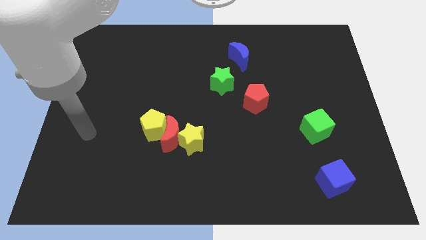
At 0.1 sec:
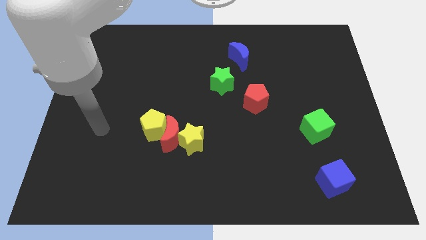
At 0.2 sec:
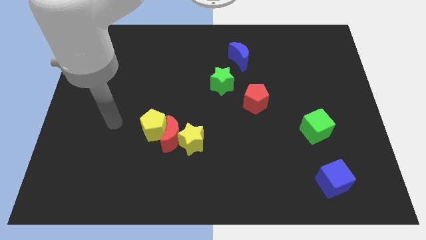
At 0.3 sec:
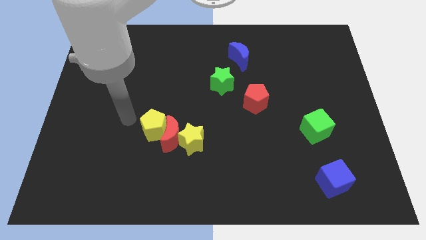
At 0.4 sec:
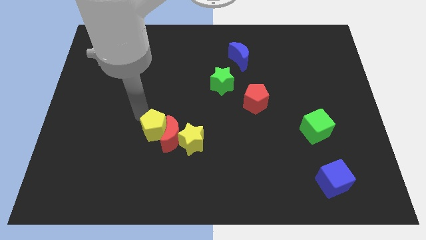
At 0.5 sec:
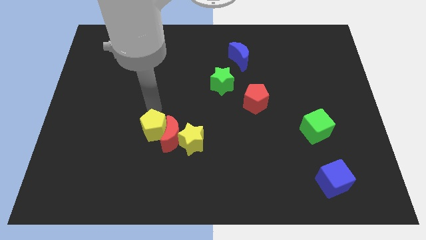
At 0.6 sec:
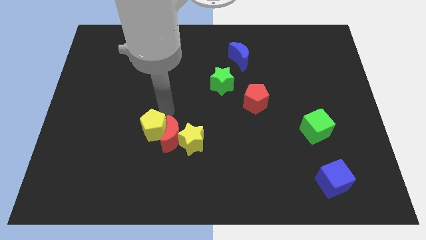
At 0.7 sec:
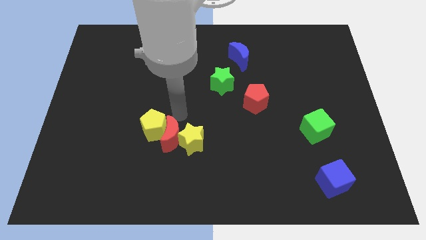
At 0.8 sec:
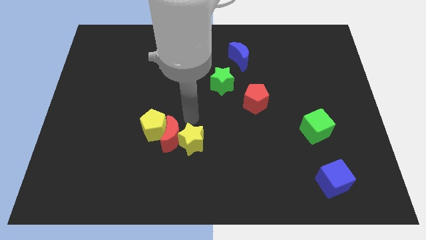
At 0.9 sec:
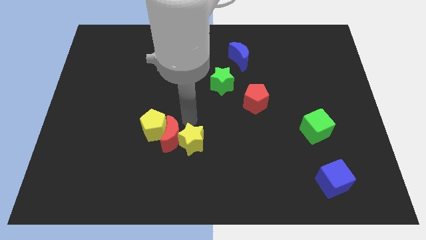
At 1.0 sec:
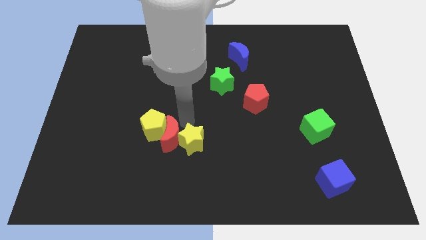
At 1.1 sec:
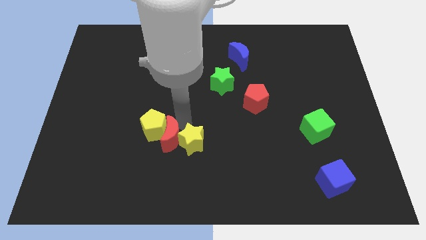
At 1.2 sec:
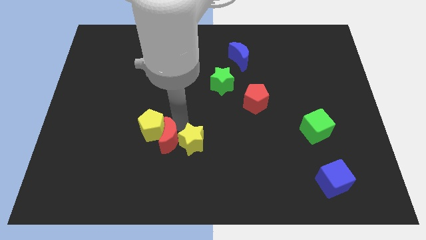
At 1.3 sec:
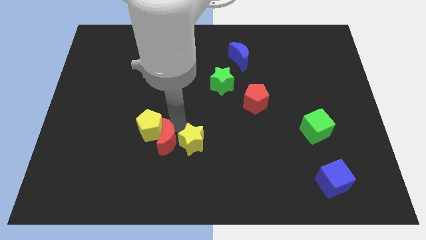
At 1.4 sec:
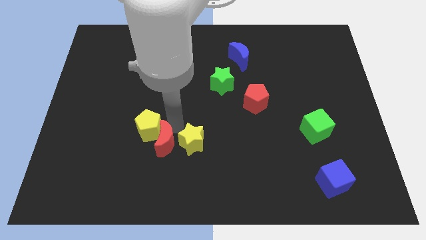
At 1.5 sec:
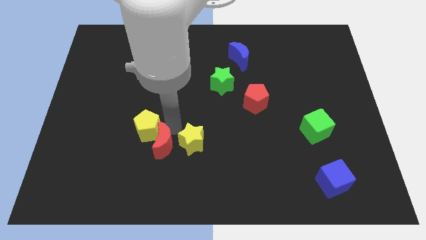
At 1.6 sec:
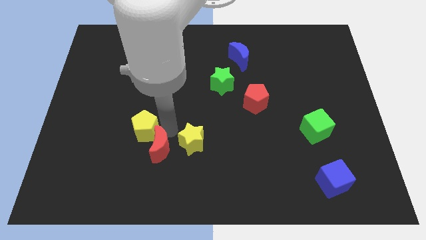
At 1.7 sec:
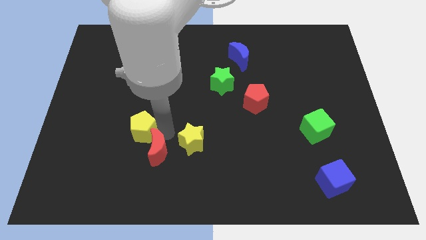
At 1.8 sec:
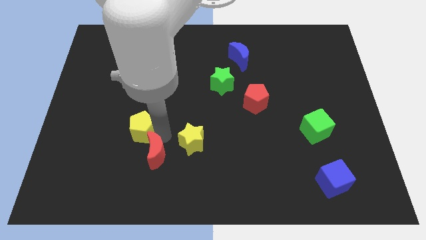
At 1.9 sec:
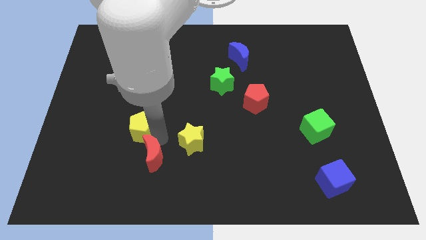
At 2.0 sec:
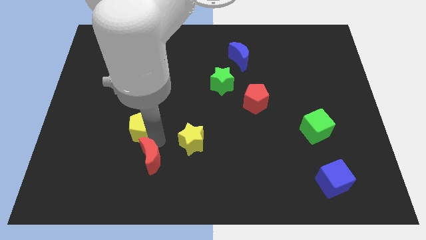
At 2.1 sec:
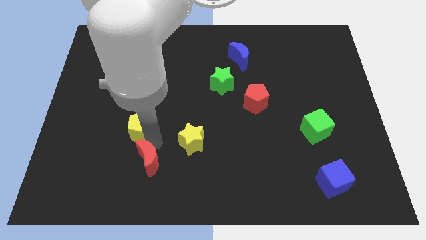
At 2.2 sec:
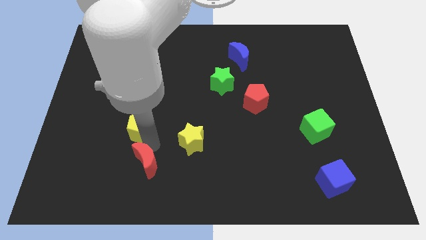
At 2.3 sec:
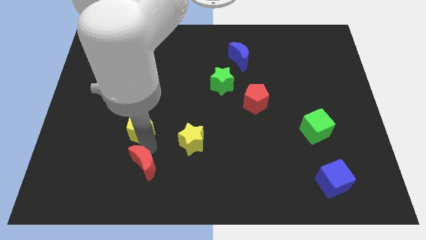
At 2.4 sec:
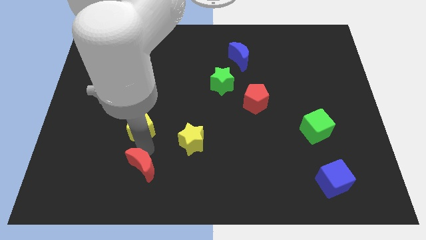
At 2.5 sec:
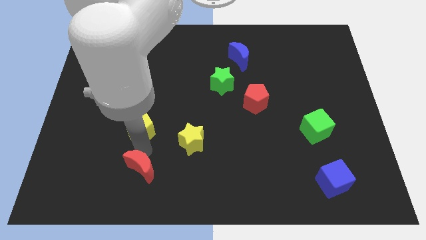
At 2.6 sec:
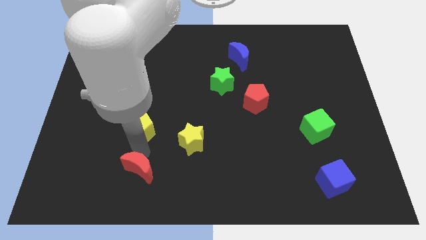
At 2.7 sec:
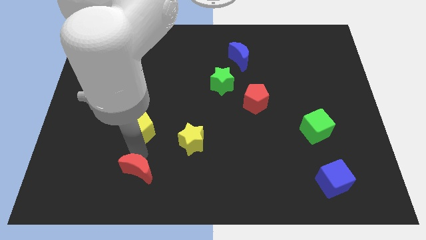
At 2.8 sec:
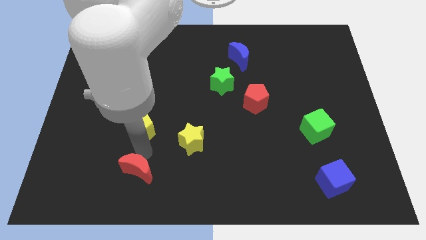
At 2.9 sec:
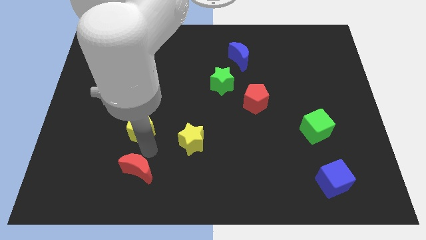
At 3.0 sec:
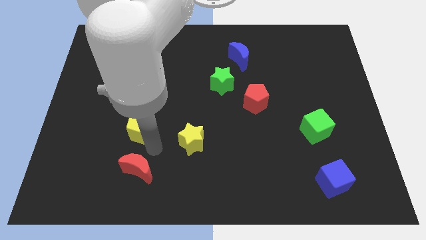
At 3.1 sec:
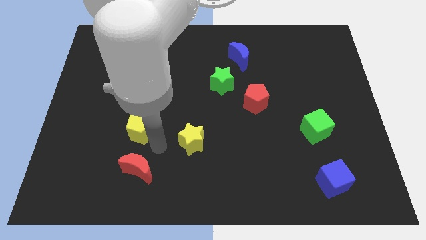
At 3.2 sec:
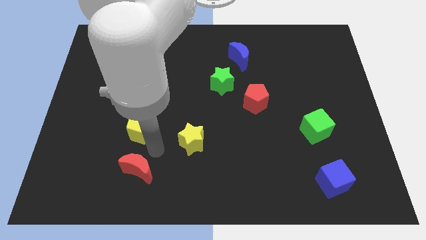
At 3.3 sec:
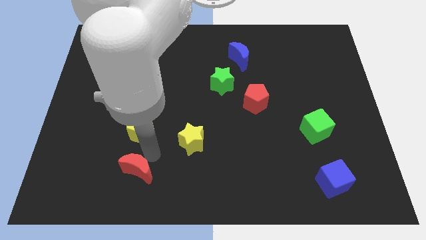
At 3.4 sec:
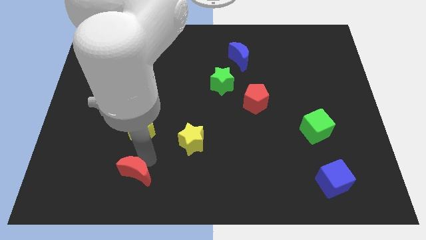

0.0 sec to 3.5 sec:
pull the red moon apart from the yellow pentagon and yellow star

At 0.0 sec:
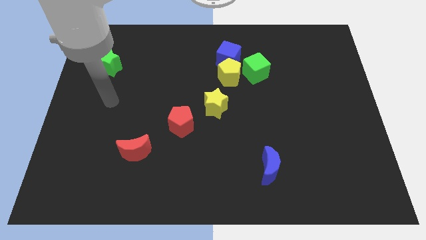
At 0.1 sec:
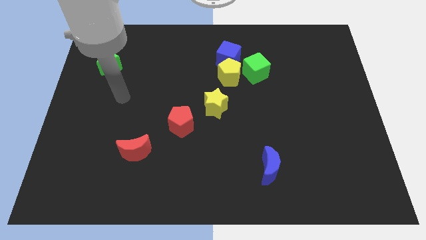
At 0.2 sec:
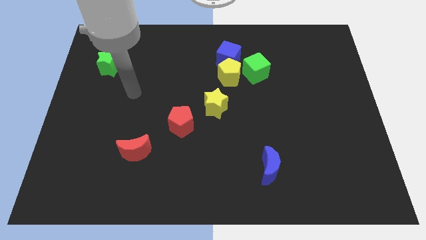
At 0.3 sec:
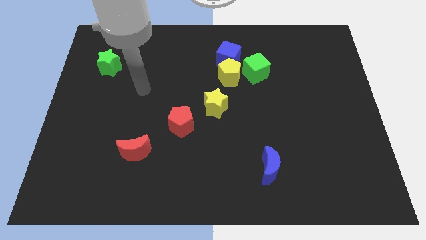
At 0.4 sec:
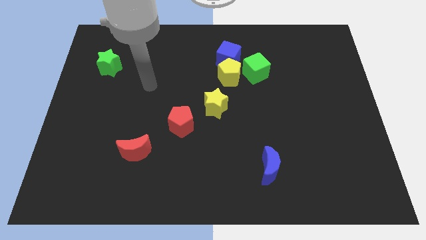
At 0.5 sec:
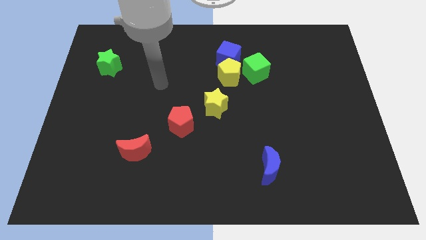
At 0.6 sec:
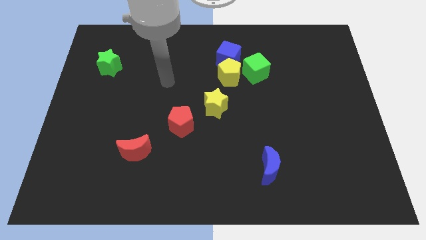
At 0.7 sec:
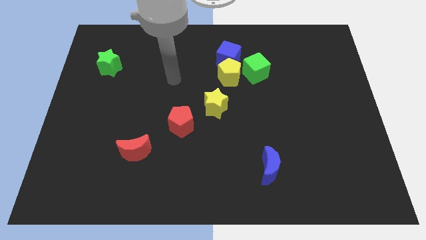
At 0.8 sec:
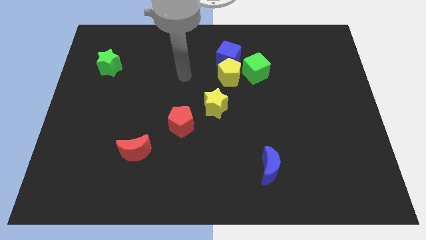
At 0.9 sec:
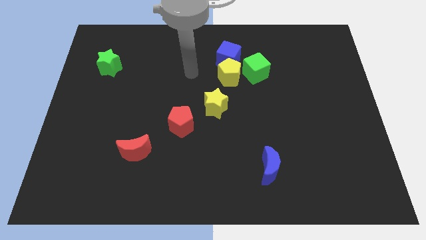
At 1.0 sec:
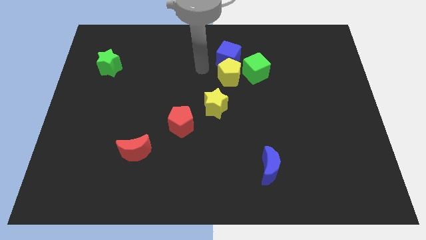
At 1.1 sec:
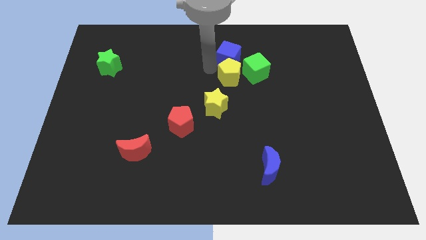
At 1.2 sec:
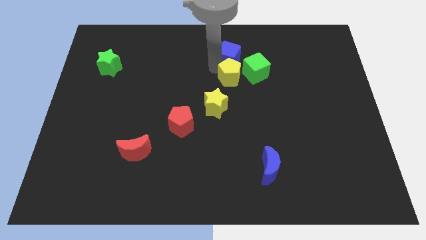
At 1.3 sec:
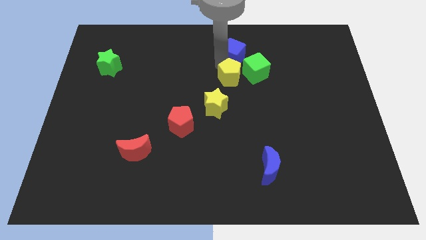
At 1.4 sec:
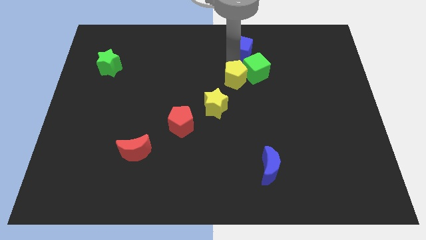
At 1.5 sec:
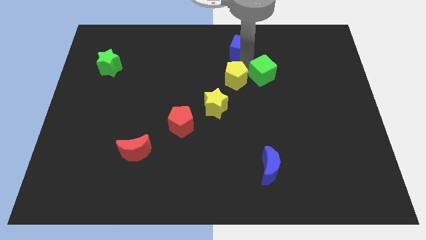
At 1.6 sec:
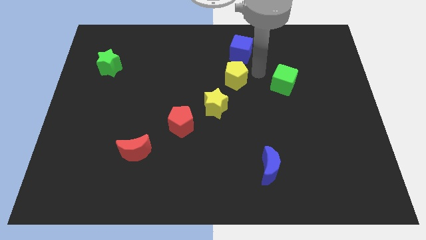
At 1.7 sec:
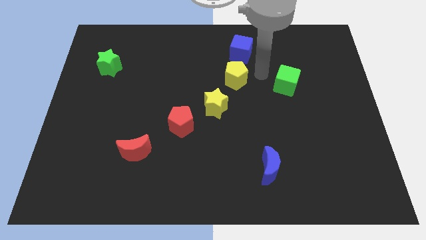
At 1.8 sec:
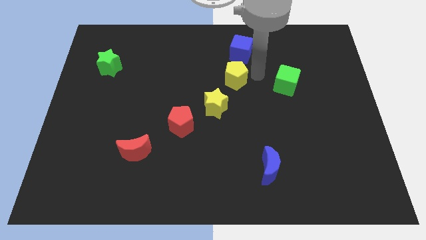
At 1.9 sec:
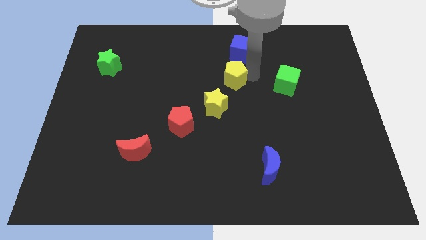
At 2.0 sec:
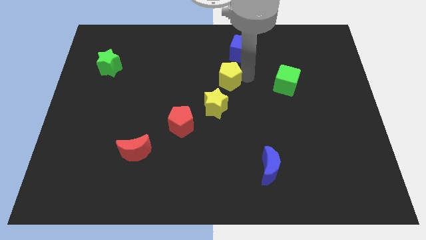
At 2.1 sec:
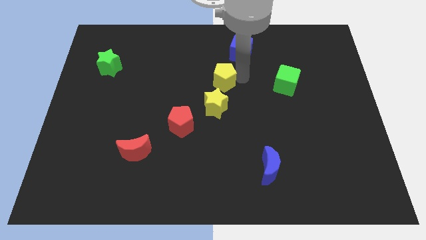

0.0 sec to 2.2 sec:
separate the yellow pentagon from the blue cube and green cube

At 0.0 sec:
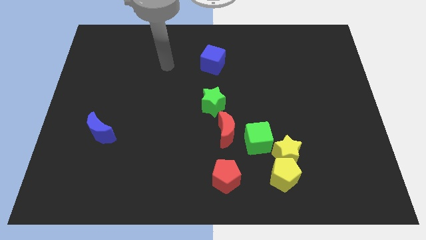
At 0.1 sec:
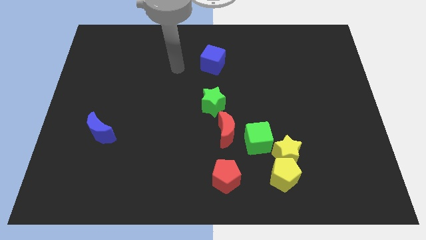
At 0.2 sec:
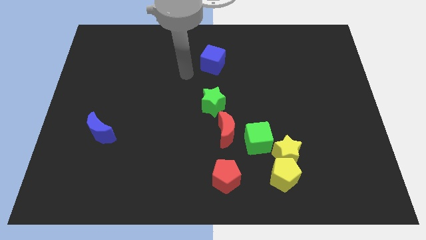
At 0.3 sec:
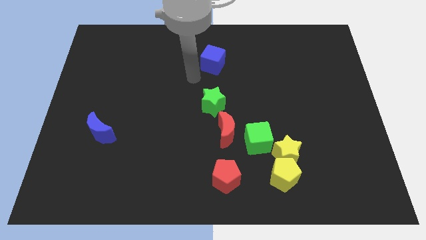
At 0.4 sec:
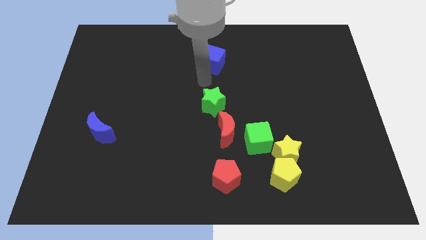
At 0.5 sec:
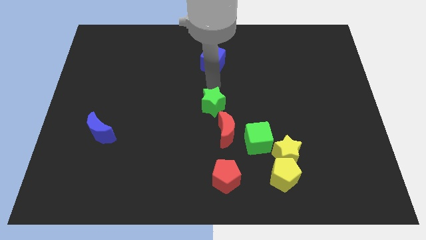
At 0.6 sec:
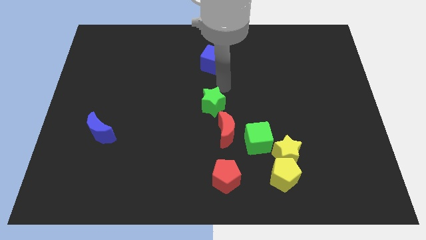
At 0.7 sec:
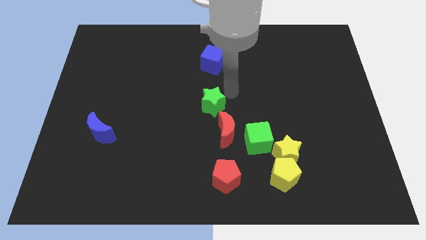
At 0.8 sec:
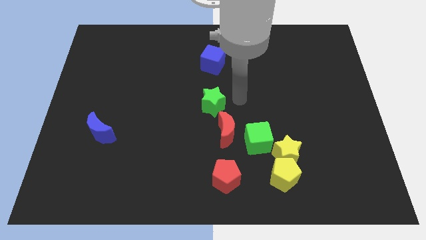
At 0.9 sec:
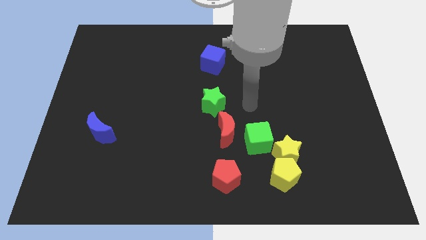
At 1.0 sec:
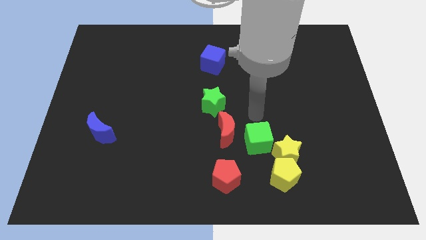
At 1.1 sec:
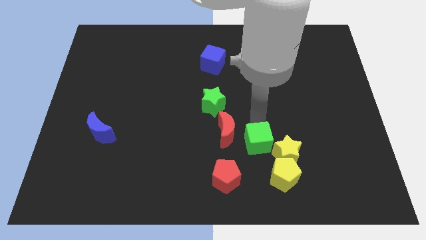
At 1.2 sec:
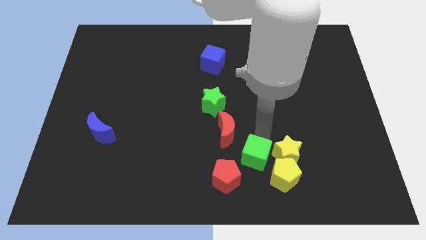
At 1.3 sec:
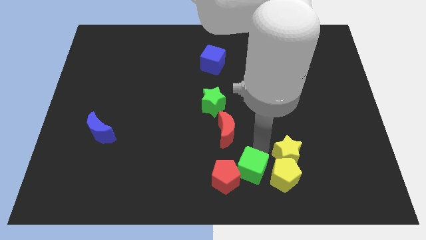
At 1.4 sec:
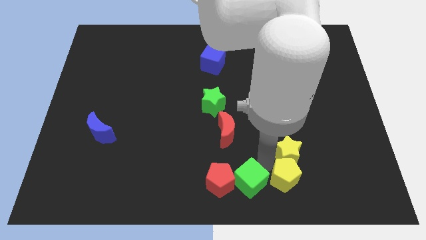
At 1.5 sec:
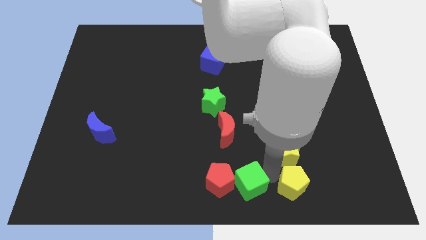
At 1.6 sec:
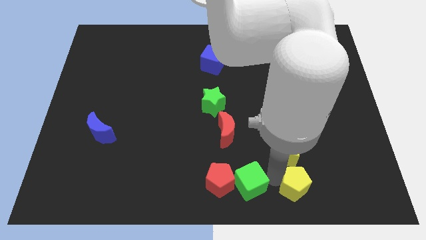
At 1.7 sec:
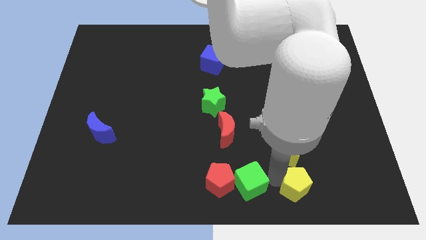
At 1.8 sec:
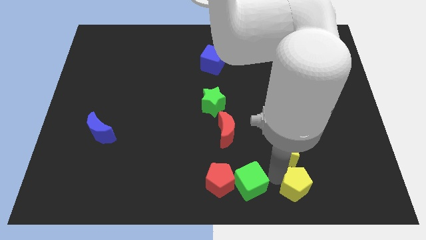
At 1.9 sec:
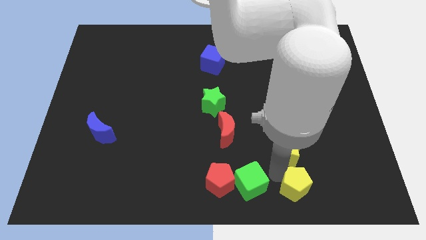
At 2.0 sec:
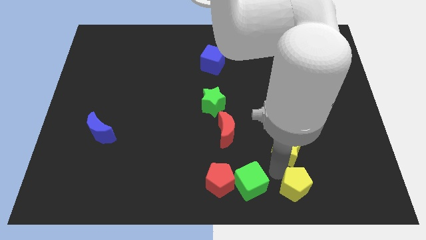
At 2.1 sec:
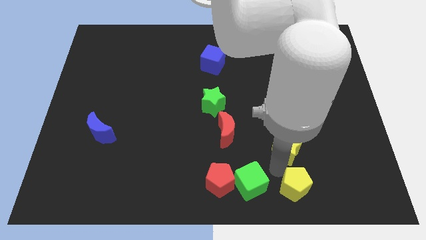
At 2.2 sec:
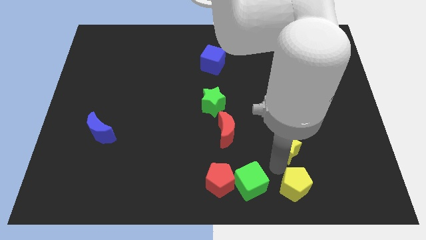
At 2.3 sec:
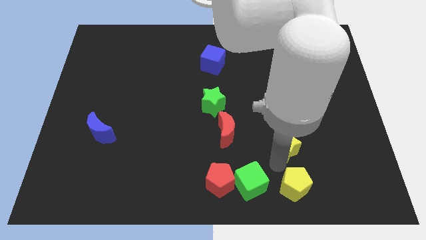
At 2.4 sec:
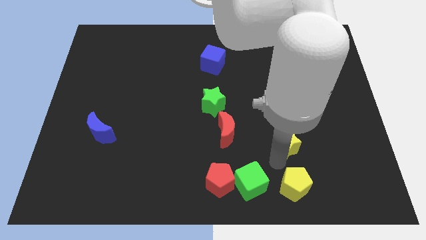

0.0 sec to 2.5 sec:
pull the yellow star apart from the yellow pentagon and green cube

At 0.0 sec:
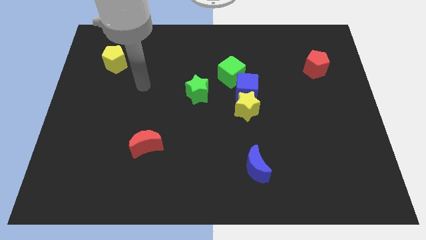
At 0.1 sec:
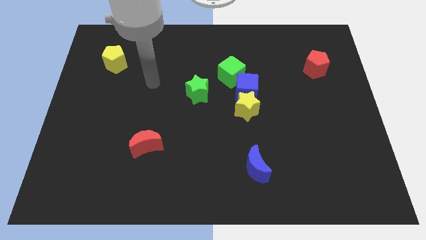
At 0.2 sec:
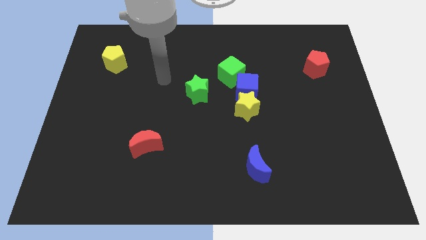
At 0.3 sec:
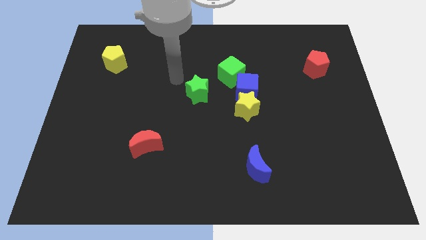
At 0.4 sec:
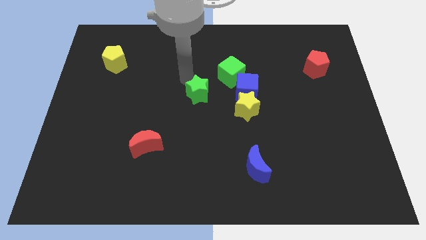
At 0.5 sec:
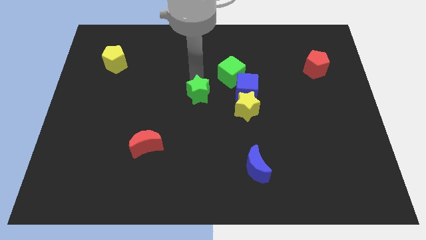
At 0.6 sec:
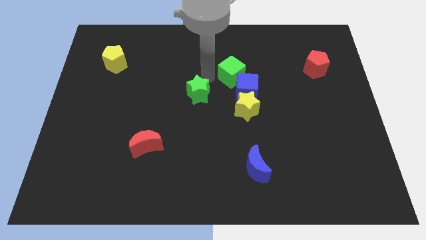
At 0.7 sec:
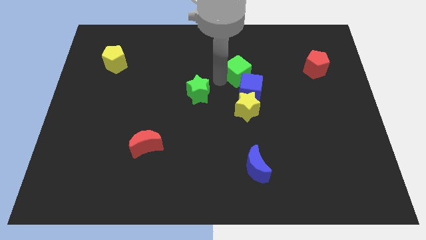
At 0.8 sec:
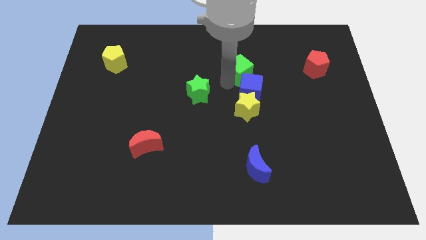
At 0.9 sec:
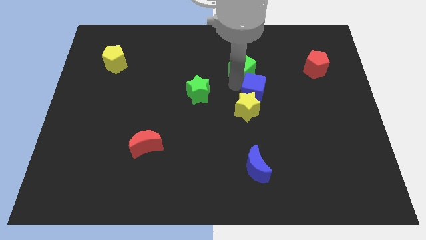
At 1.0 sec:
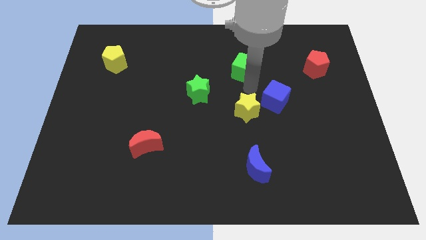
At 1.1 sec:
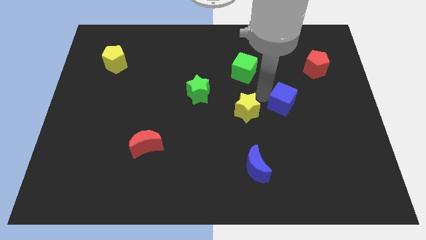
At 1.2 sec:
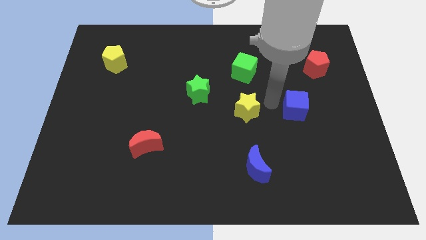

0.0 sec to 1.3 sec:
pull the yellow star apart from the blue cube
